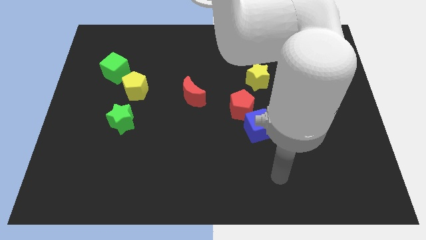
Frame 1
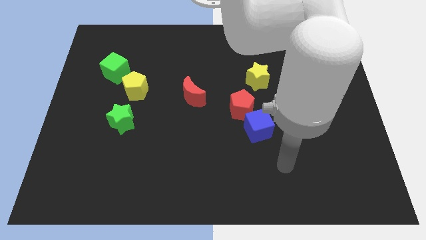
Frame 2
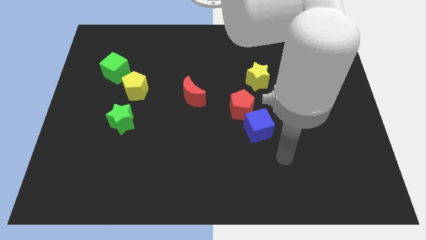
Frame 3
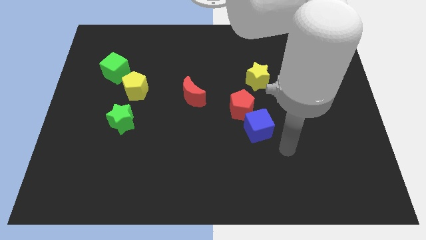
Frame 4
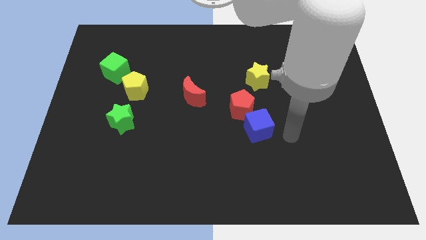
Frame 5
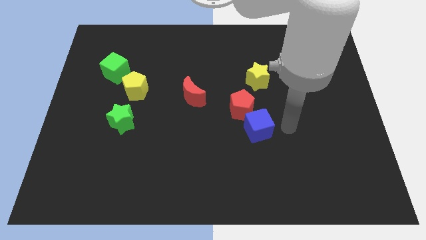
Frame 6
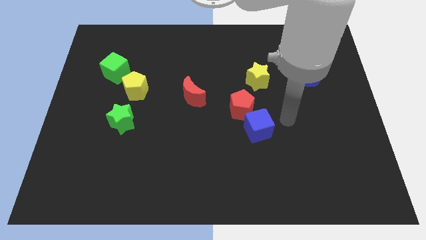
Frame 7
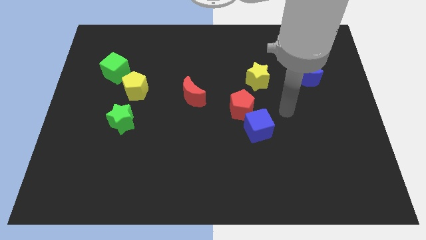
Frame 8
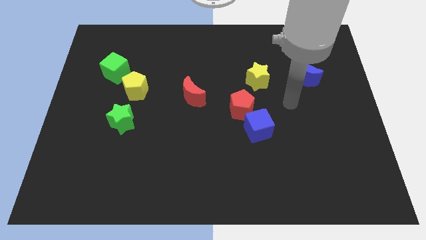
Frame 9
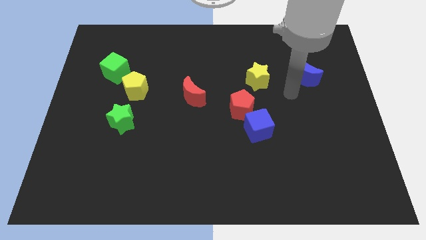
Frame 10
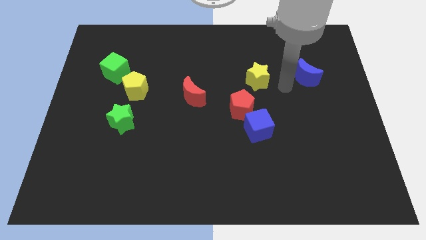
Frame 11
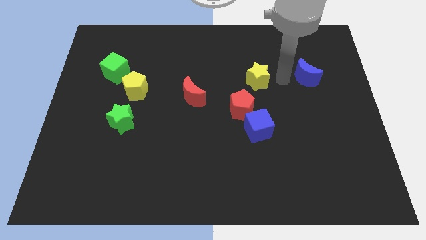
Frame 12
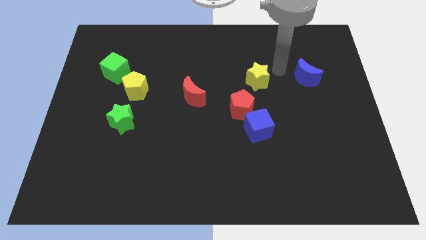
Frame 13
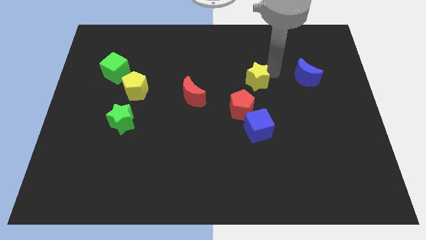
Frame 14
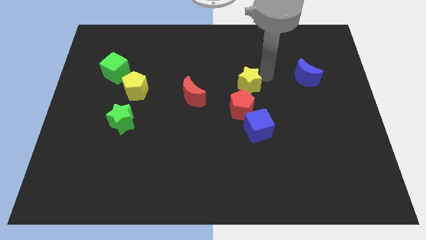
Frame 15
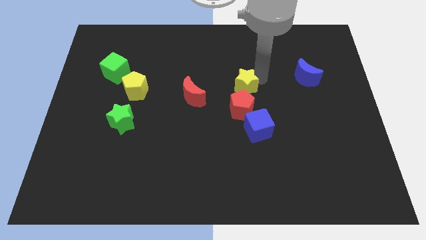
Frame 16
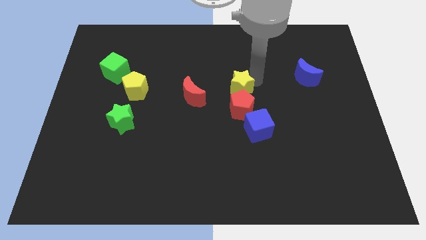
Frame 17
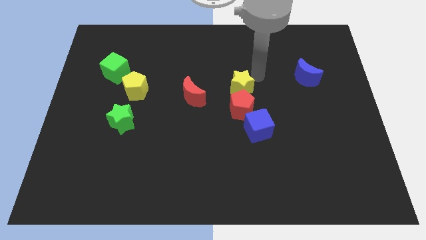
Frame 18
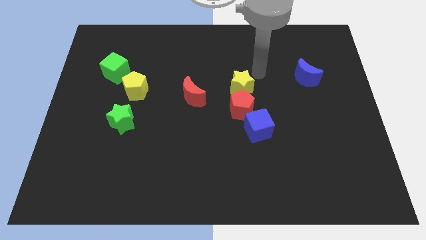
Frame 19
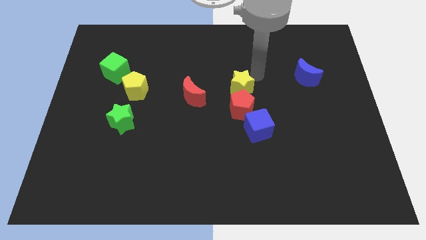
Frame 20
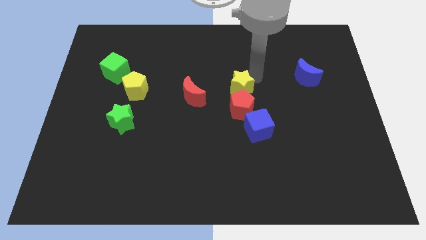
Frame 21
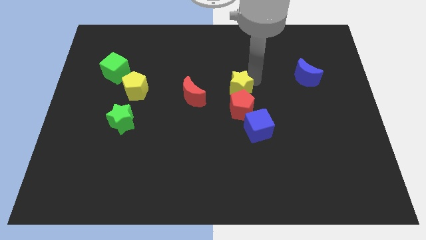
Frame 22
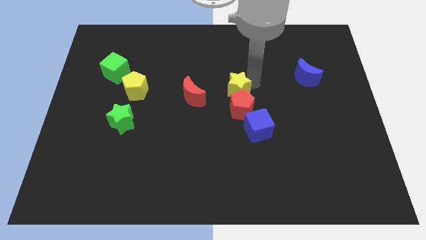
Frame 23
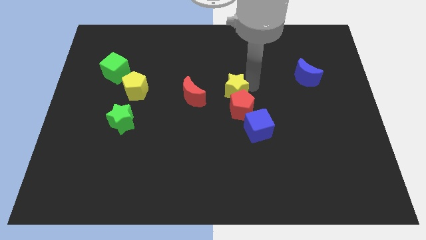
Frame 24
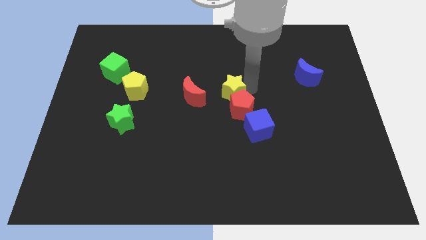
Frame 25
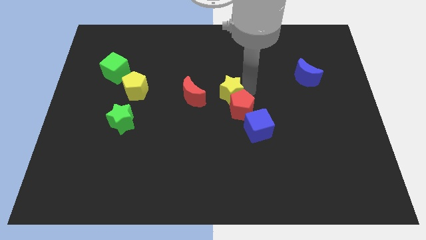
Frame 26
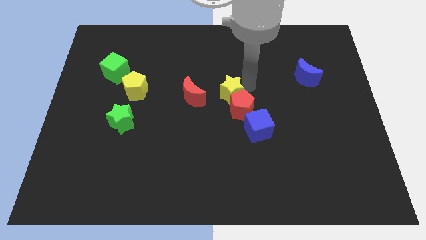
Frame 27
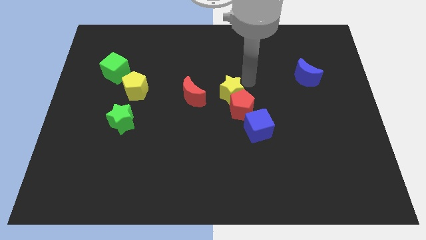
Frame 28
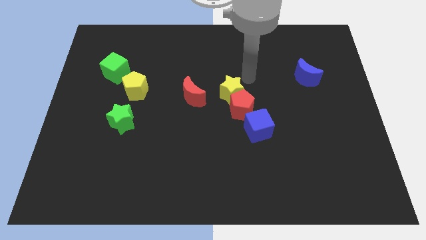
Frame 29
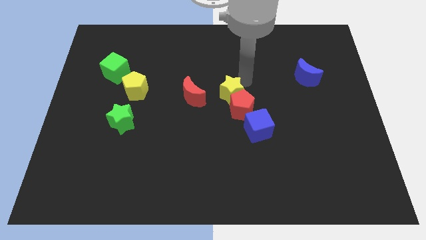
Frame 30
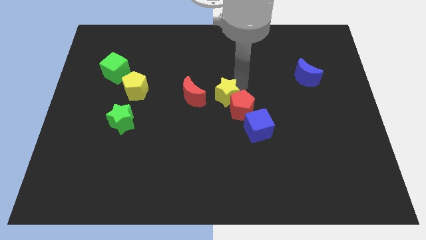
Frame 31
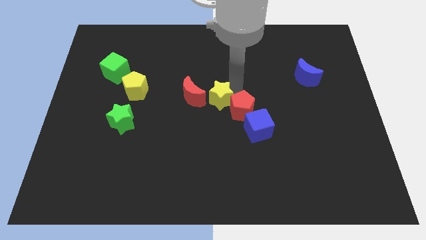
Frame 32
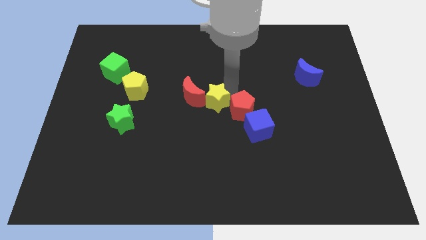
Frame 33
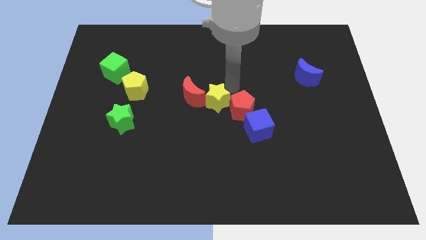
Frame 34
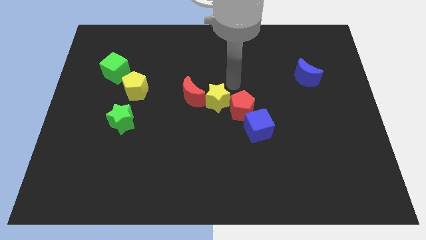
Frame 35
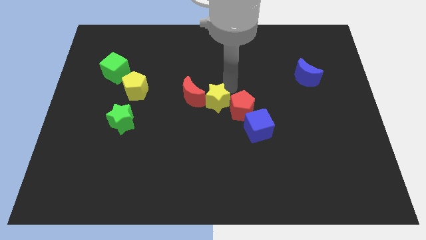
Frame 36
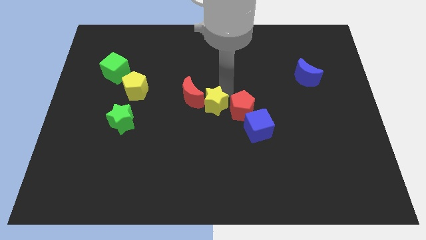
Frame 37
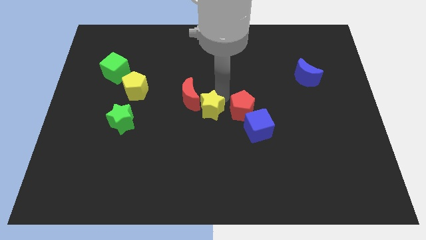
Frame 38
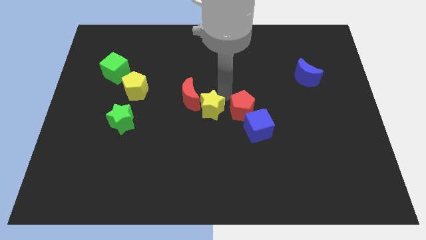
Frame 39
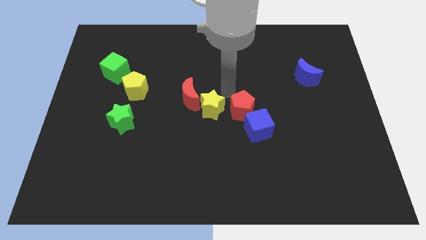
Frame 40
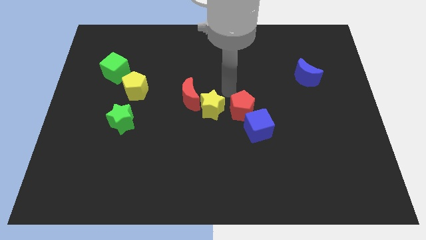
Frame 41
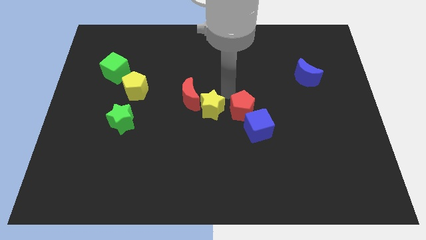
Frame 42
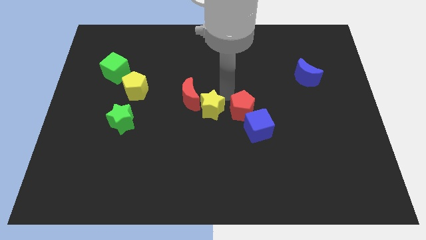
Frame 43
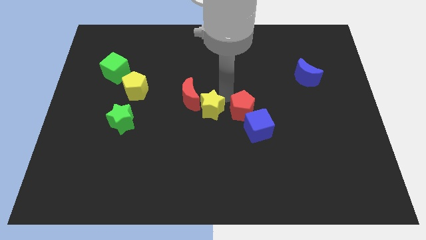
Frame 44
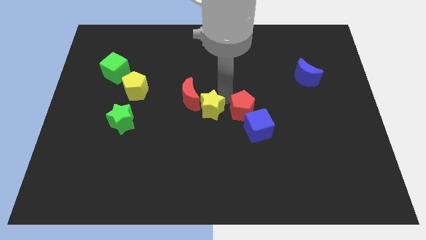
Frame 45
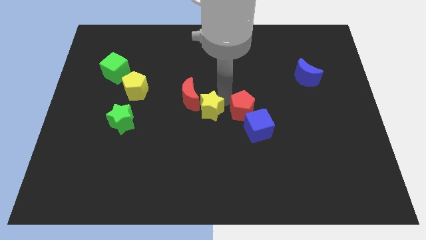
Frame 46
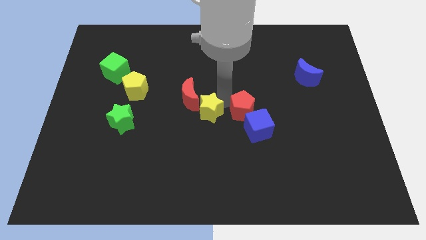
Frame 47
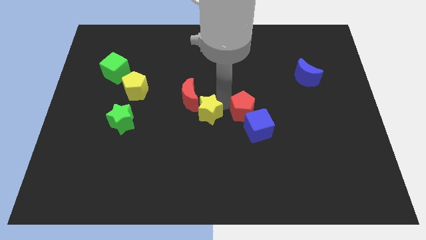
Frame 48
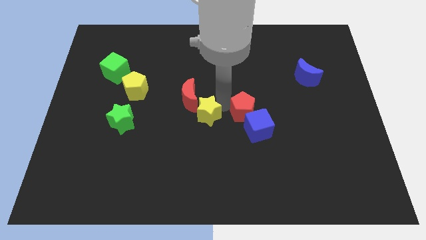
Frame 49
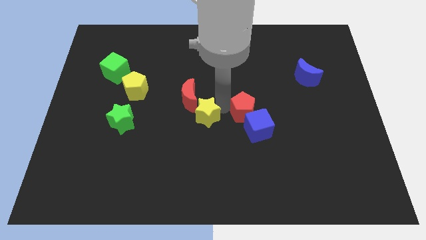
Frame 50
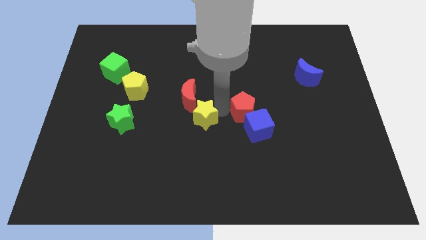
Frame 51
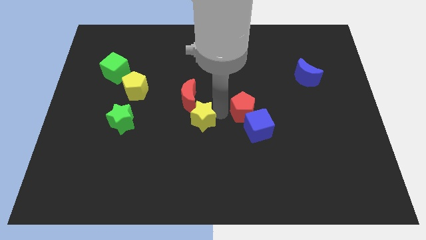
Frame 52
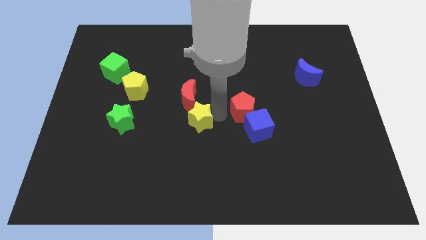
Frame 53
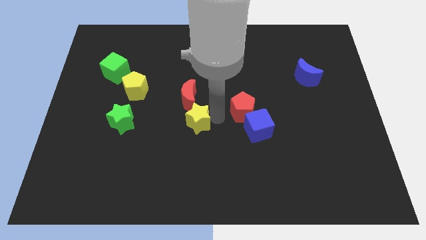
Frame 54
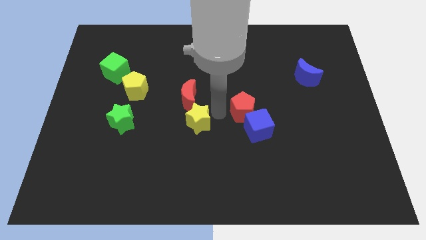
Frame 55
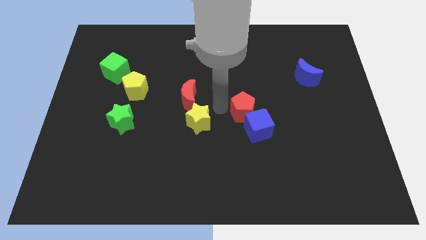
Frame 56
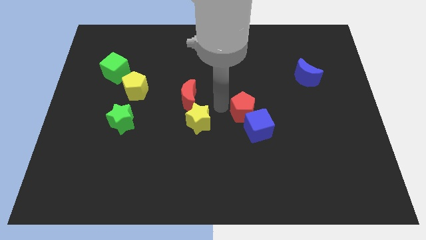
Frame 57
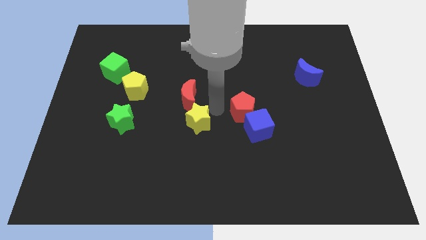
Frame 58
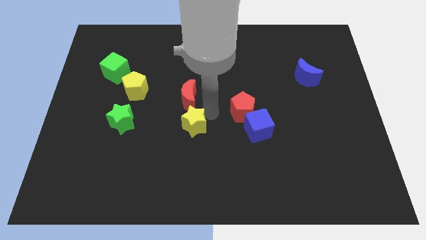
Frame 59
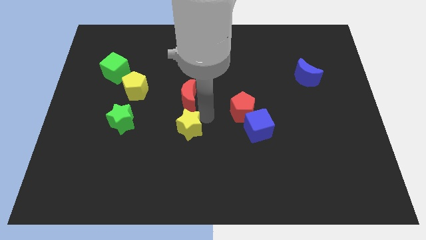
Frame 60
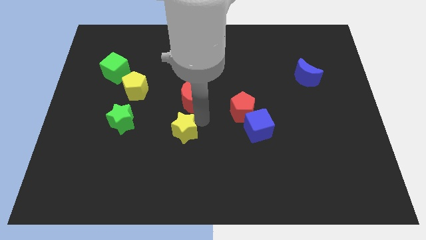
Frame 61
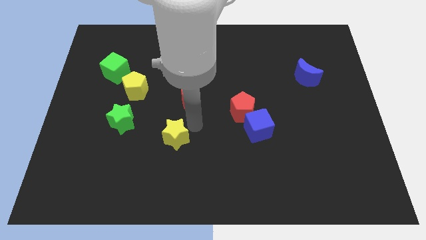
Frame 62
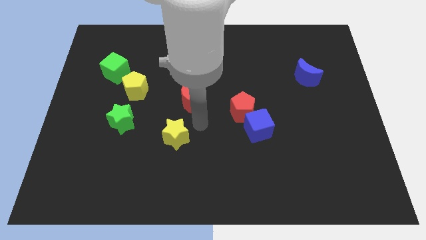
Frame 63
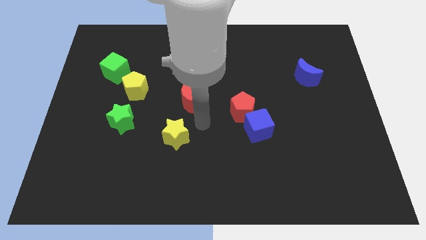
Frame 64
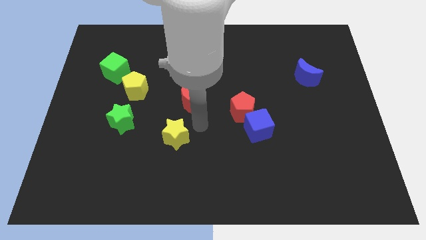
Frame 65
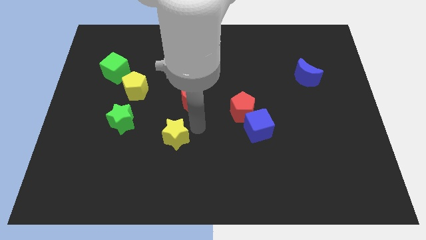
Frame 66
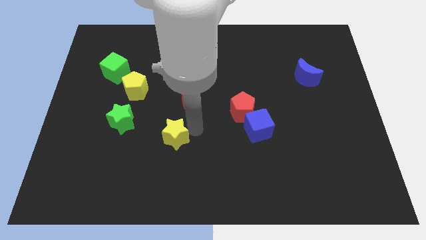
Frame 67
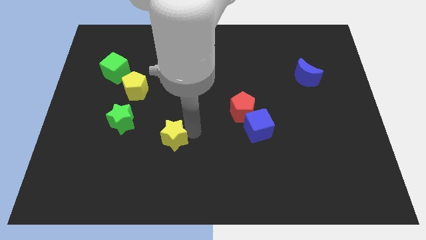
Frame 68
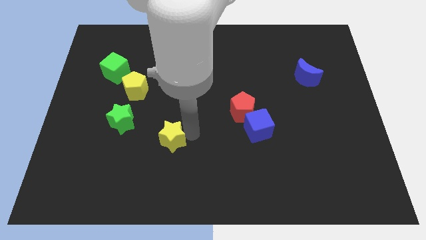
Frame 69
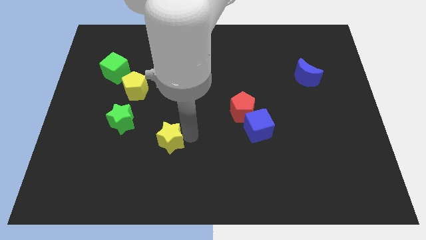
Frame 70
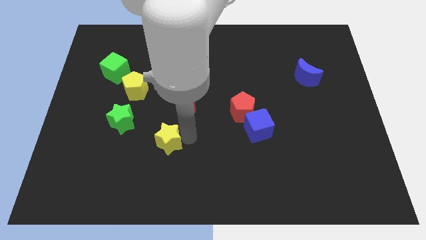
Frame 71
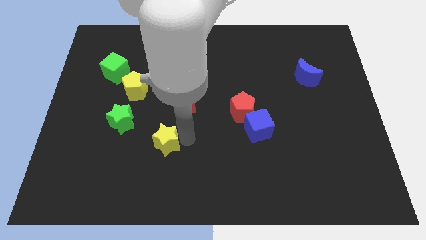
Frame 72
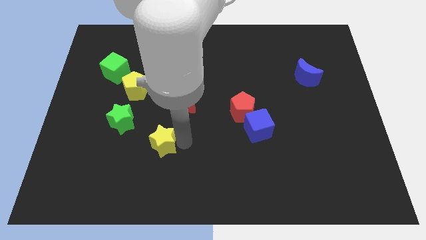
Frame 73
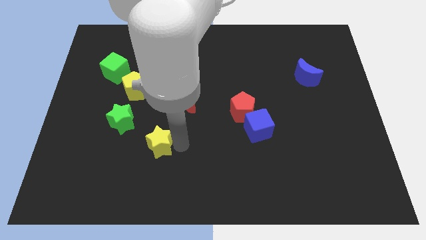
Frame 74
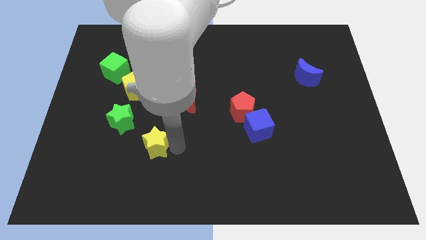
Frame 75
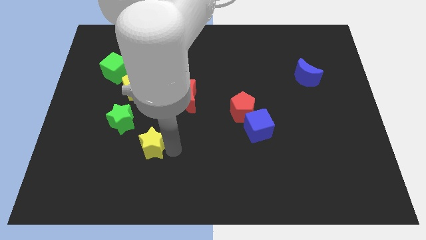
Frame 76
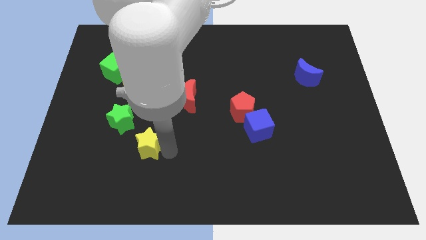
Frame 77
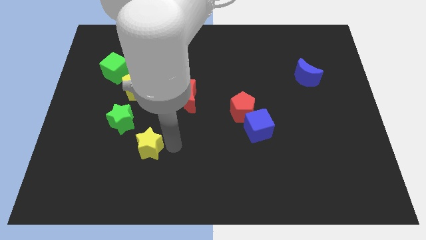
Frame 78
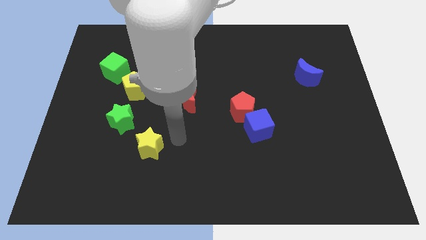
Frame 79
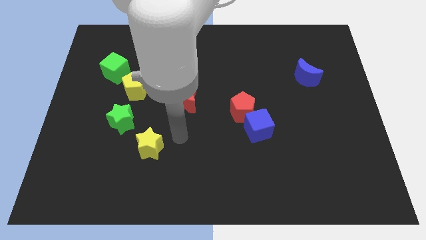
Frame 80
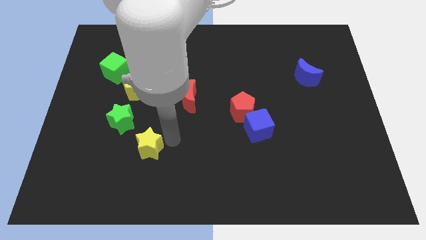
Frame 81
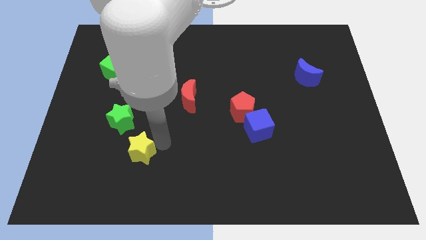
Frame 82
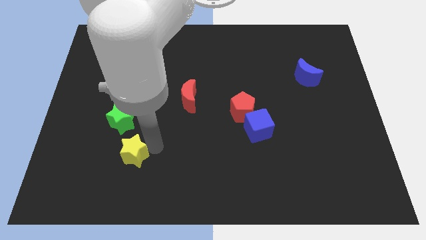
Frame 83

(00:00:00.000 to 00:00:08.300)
move the yellow star below the green star
